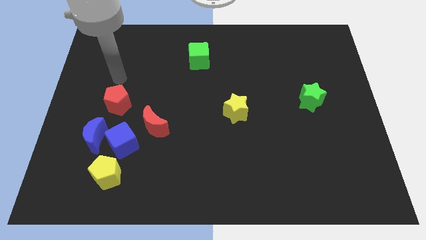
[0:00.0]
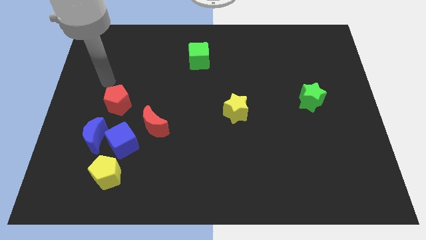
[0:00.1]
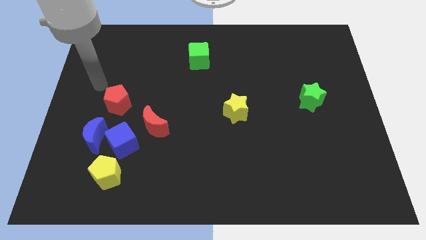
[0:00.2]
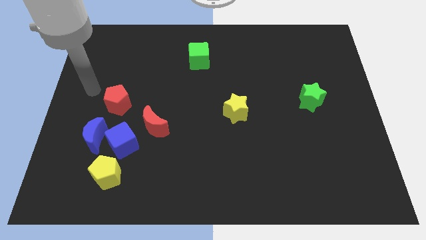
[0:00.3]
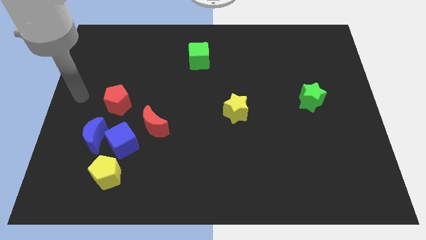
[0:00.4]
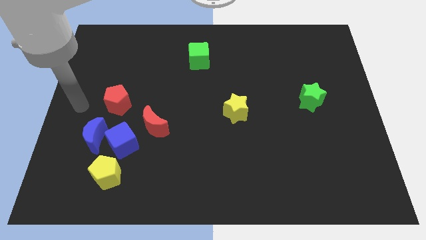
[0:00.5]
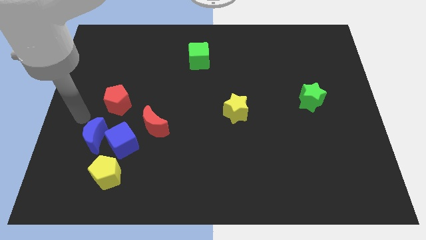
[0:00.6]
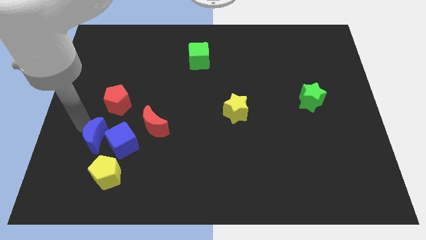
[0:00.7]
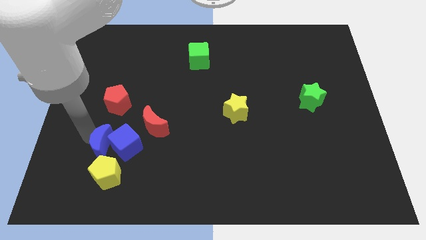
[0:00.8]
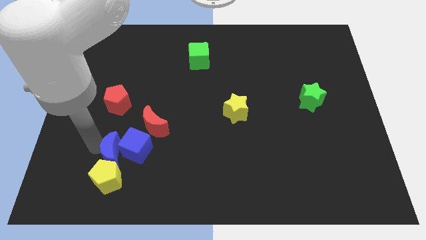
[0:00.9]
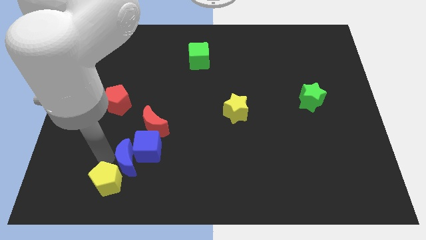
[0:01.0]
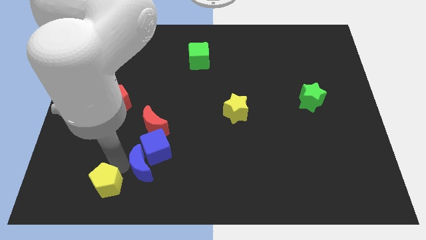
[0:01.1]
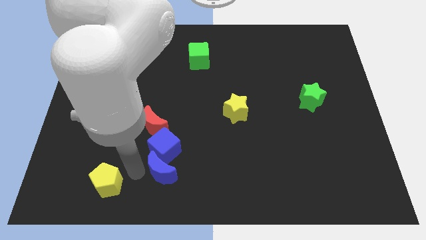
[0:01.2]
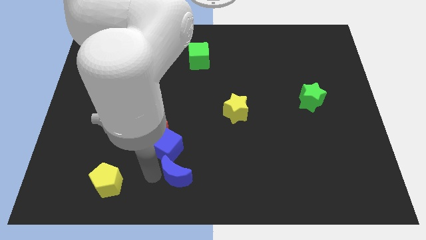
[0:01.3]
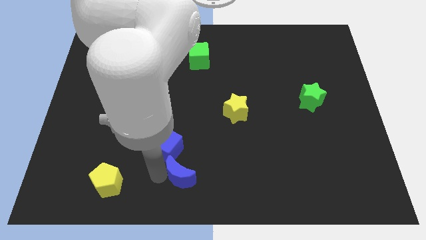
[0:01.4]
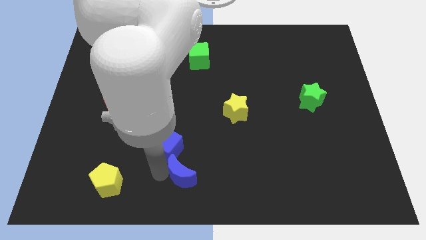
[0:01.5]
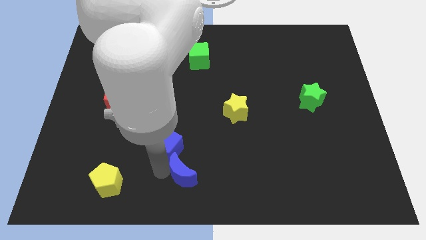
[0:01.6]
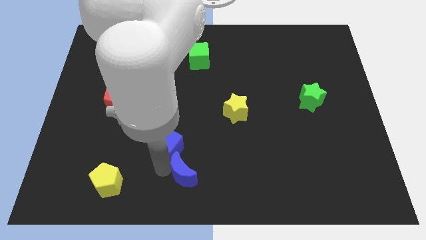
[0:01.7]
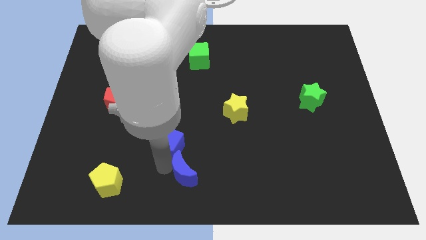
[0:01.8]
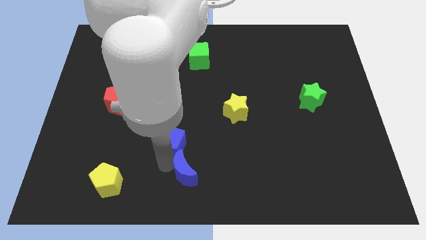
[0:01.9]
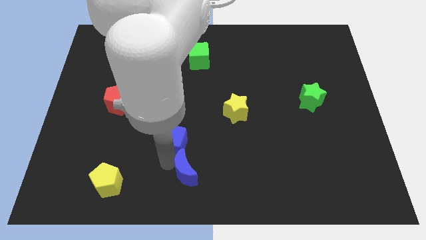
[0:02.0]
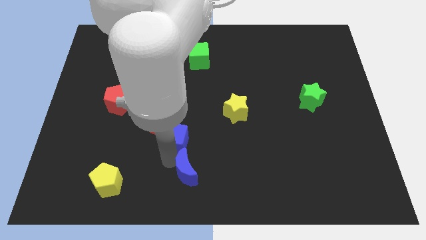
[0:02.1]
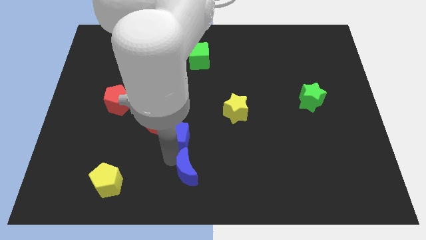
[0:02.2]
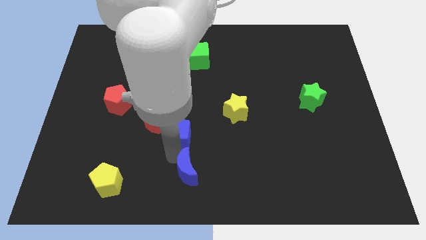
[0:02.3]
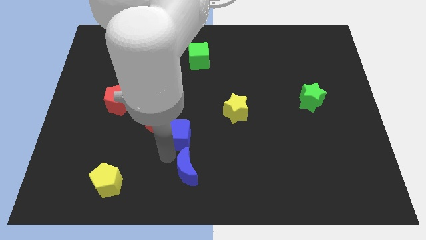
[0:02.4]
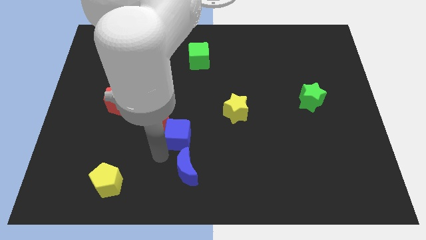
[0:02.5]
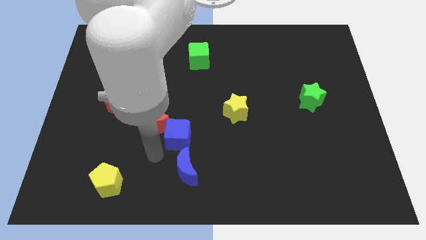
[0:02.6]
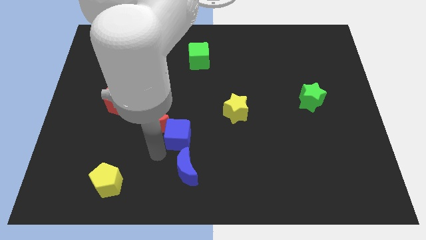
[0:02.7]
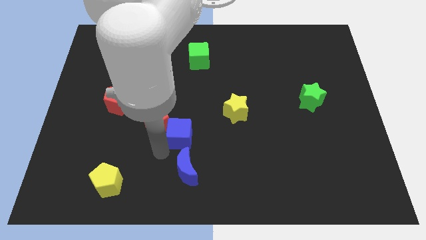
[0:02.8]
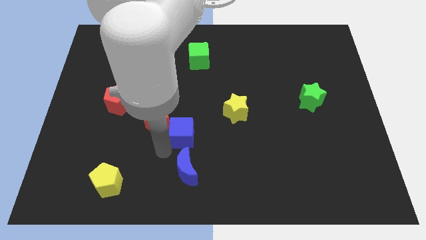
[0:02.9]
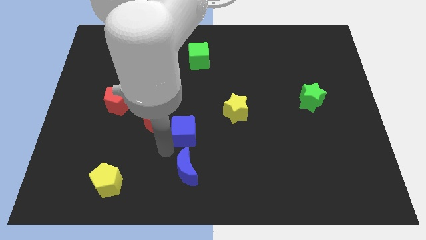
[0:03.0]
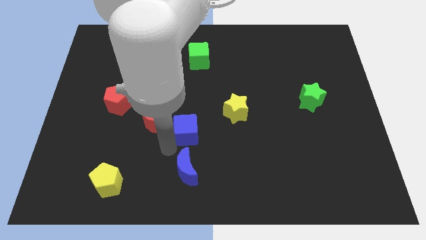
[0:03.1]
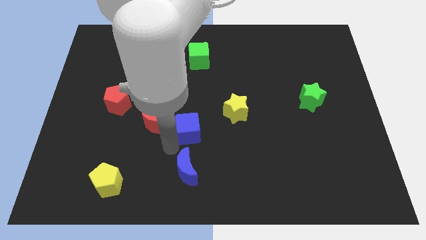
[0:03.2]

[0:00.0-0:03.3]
pull the blue cube apart from the group

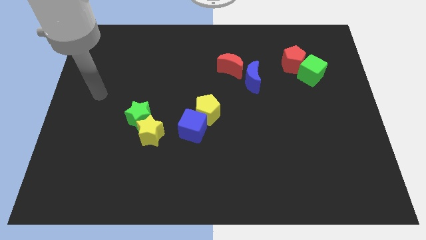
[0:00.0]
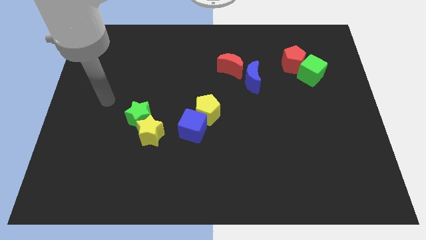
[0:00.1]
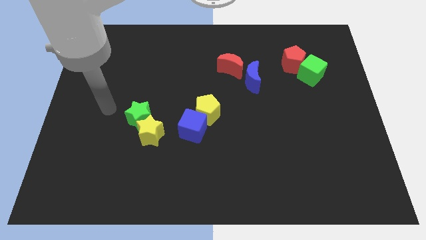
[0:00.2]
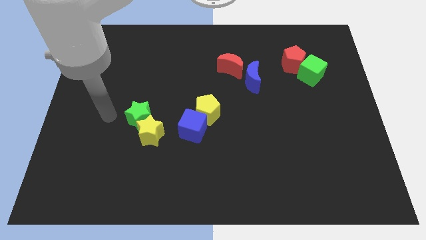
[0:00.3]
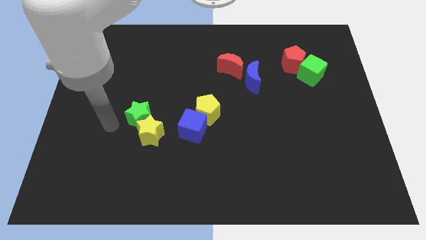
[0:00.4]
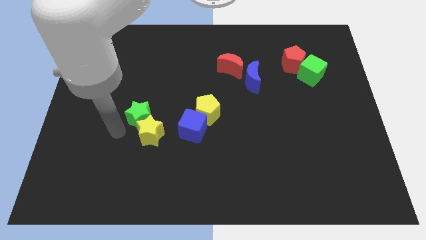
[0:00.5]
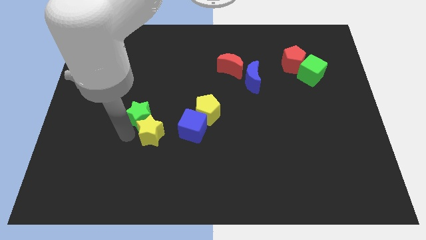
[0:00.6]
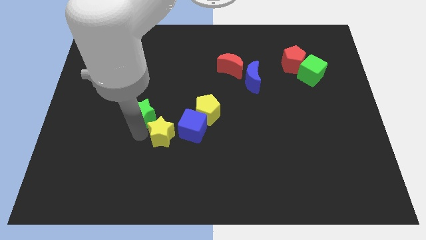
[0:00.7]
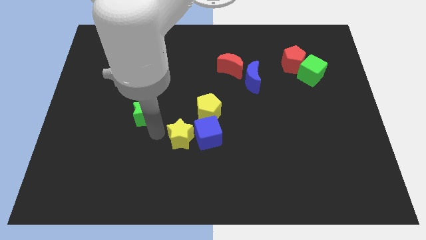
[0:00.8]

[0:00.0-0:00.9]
move the green star away from the yellow star

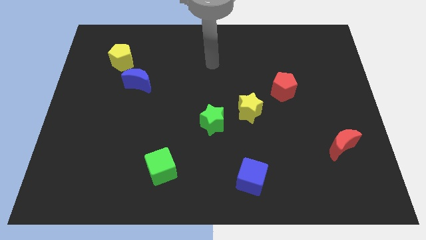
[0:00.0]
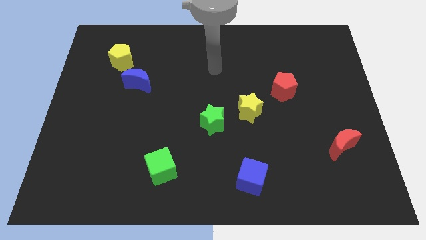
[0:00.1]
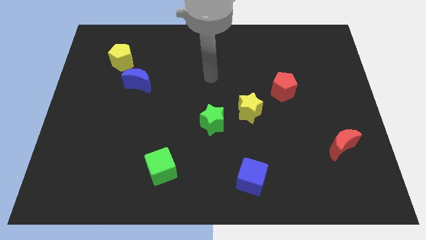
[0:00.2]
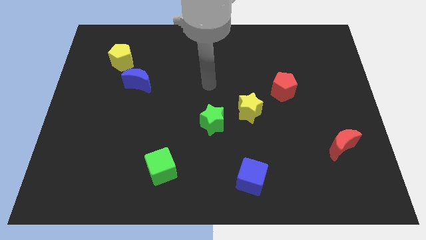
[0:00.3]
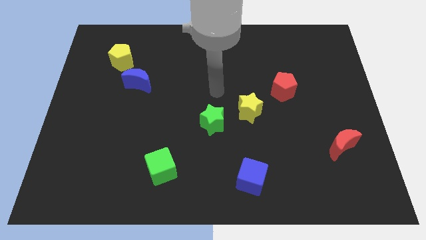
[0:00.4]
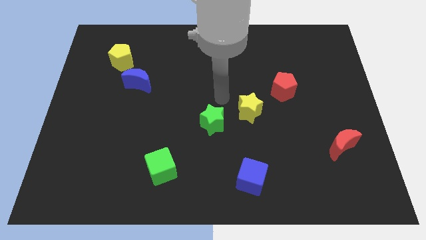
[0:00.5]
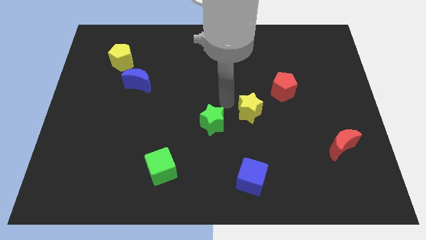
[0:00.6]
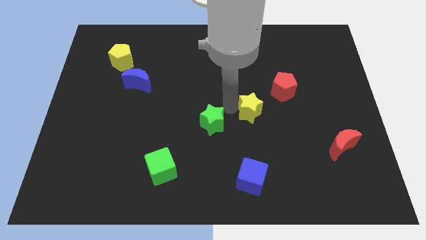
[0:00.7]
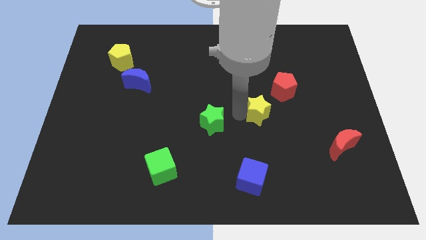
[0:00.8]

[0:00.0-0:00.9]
separate the green star from the yellow star

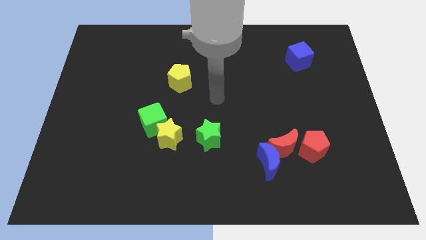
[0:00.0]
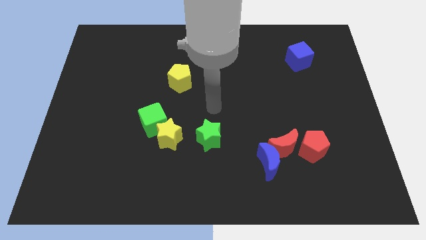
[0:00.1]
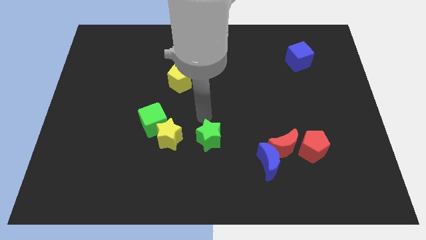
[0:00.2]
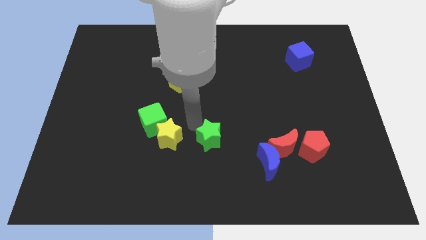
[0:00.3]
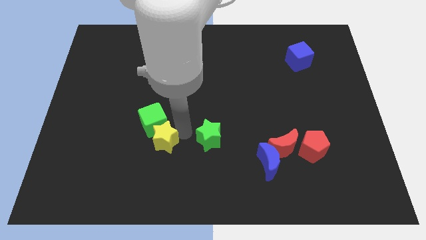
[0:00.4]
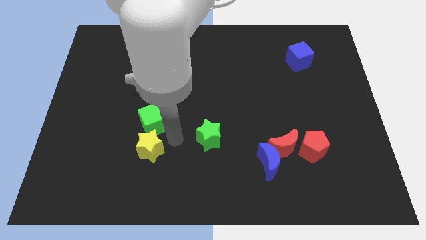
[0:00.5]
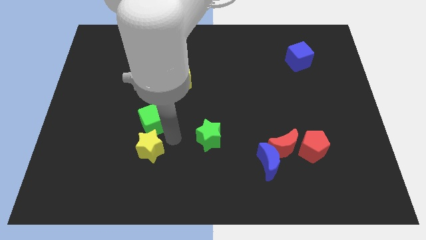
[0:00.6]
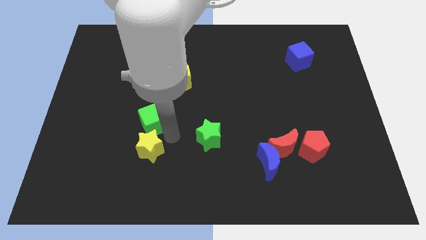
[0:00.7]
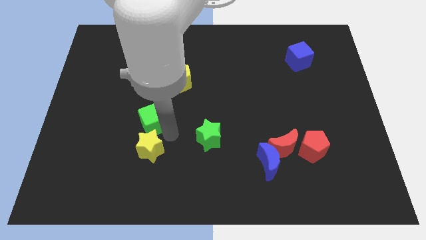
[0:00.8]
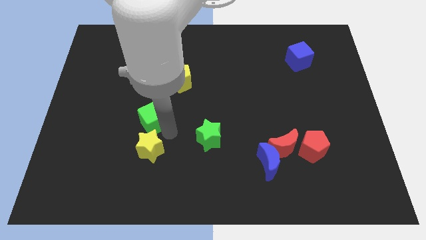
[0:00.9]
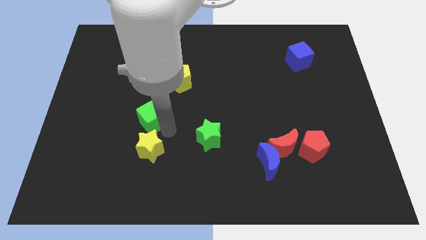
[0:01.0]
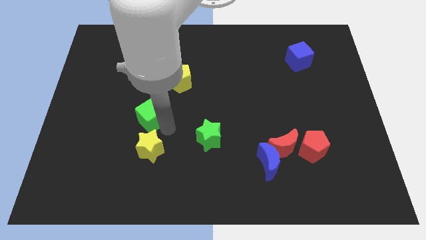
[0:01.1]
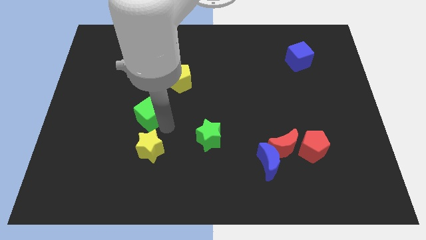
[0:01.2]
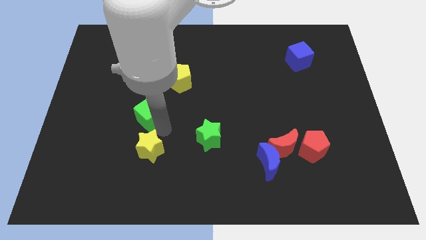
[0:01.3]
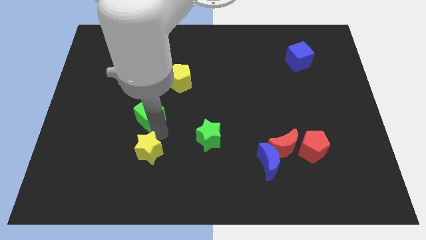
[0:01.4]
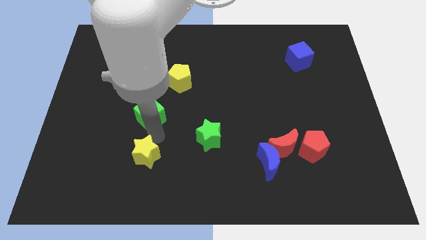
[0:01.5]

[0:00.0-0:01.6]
pull the green cube apart from the yellow star

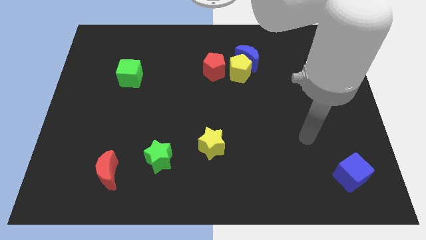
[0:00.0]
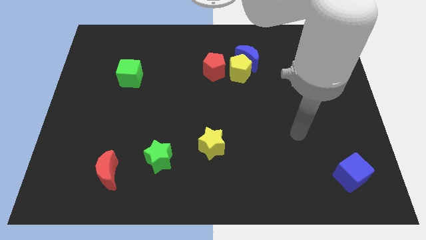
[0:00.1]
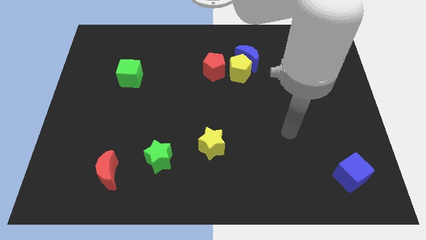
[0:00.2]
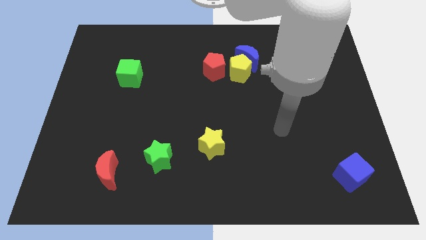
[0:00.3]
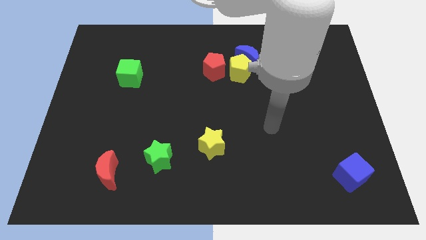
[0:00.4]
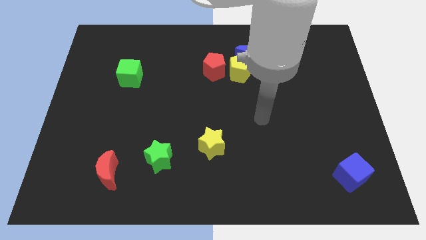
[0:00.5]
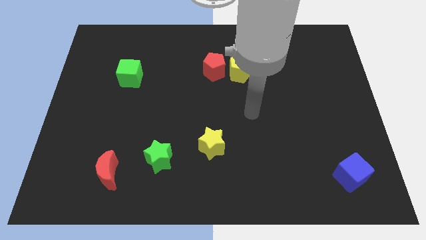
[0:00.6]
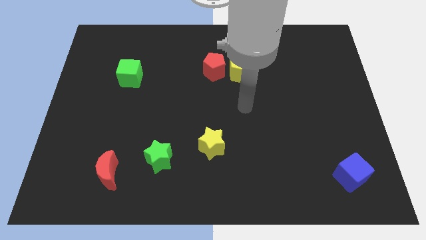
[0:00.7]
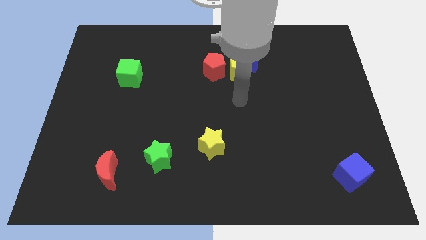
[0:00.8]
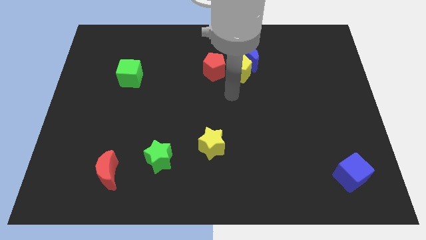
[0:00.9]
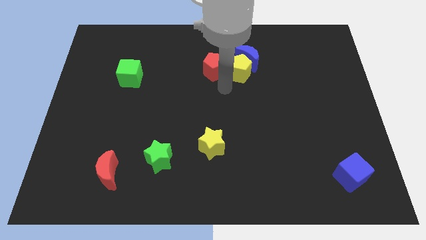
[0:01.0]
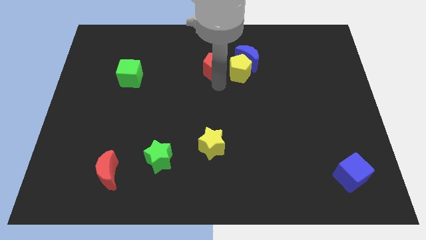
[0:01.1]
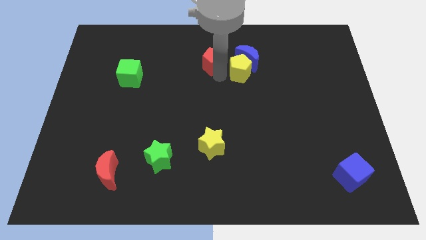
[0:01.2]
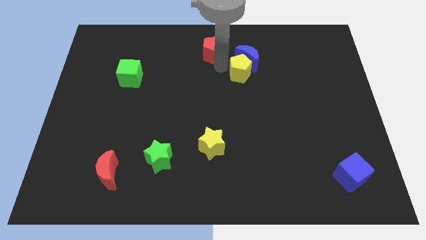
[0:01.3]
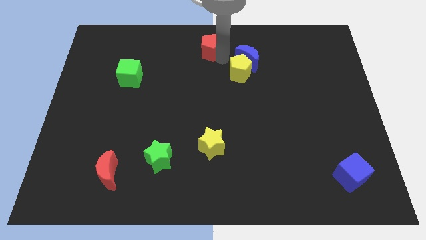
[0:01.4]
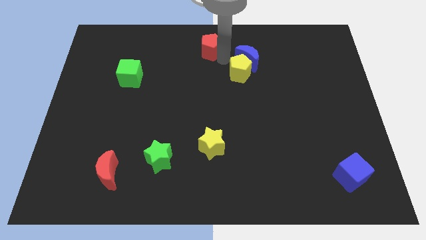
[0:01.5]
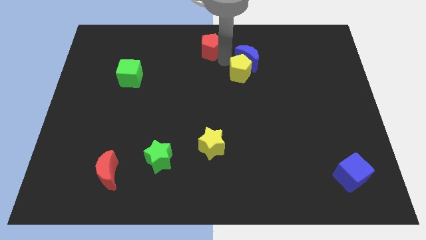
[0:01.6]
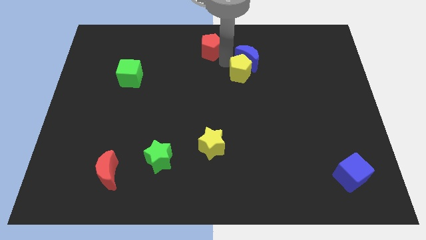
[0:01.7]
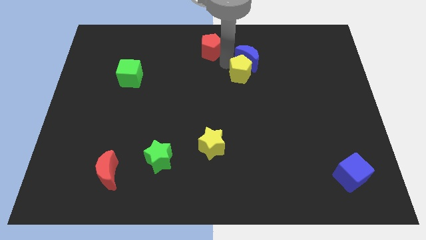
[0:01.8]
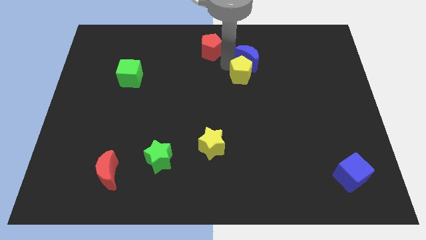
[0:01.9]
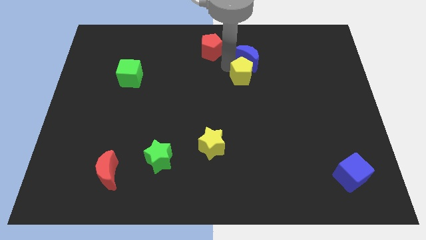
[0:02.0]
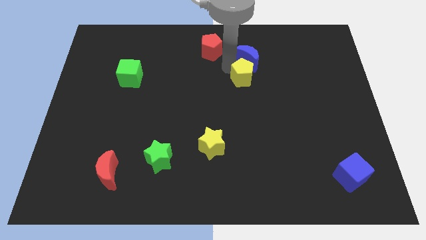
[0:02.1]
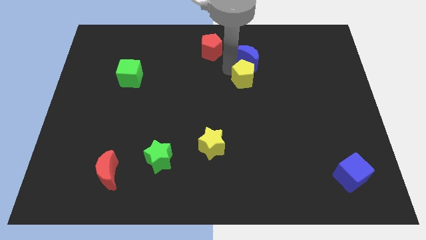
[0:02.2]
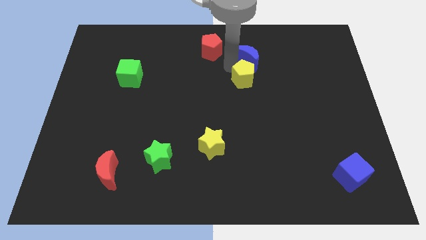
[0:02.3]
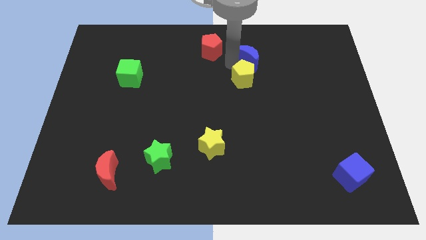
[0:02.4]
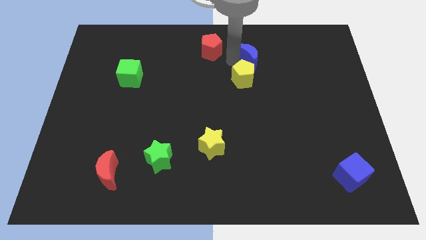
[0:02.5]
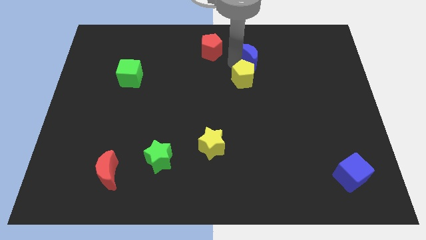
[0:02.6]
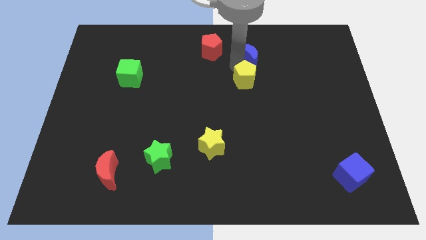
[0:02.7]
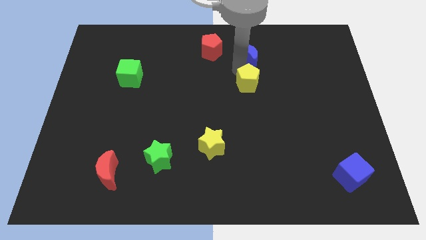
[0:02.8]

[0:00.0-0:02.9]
move the yellow pentagon away from the blue moon and red pentagon
